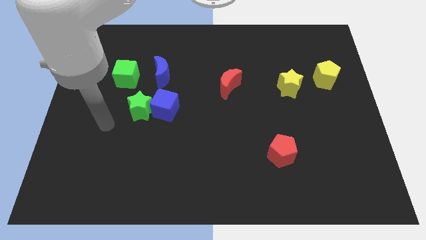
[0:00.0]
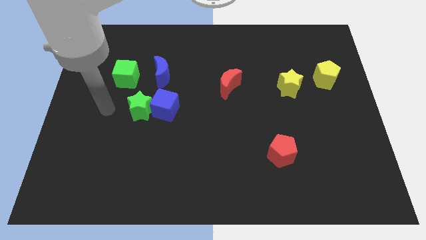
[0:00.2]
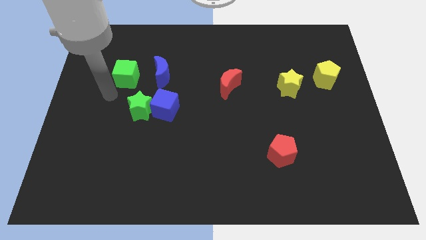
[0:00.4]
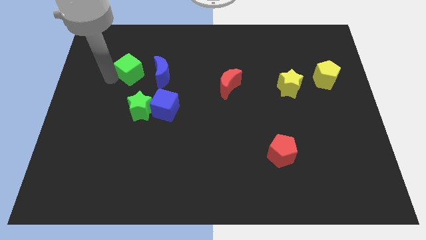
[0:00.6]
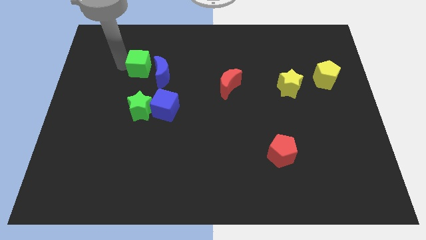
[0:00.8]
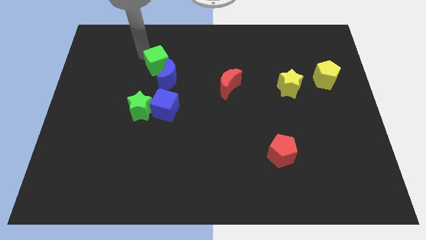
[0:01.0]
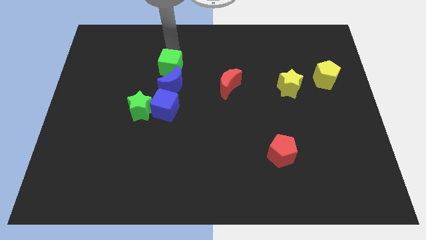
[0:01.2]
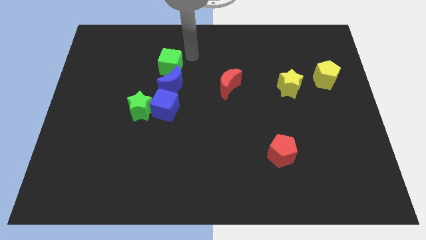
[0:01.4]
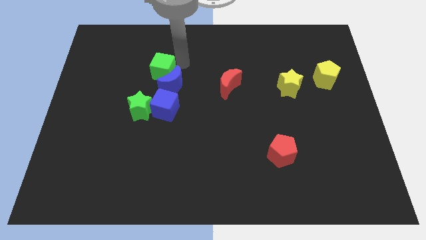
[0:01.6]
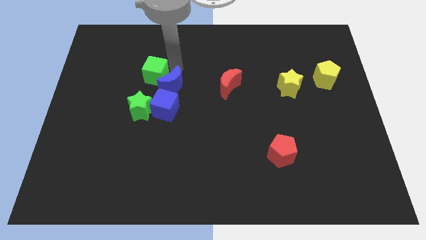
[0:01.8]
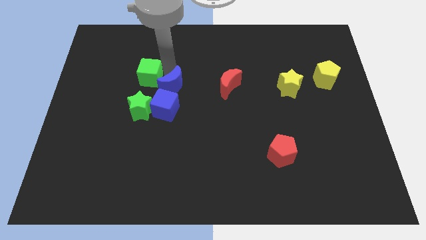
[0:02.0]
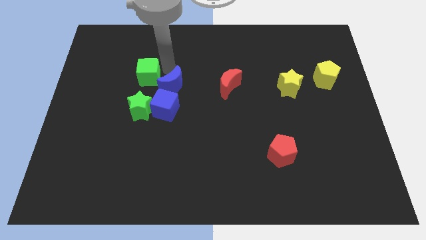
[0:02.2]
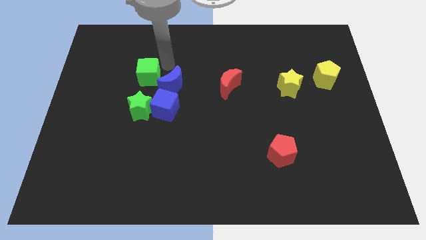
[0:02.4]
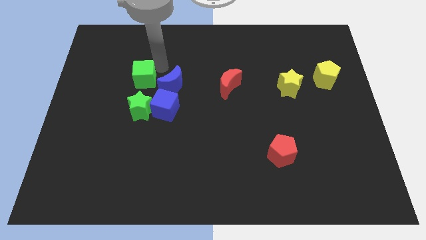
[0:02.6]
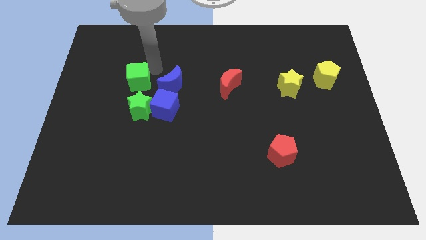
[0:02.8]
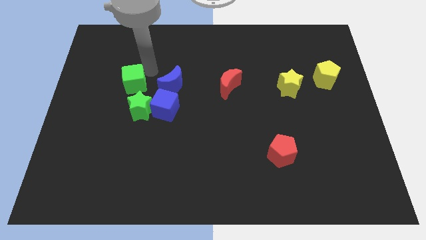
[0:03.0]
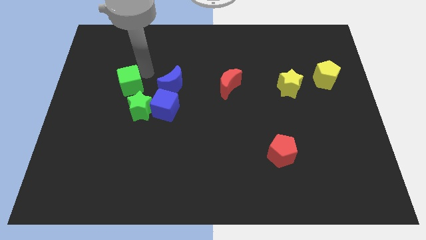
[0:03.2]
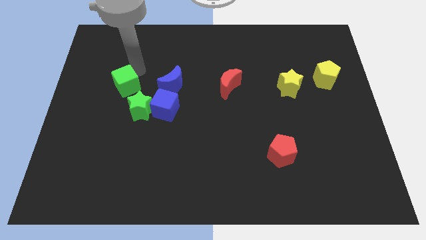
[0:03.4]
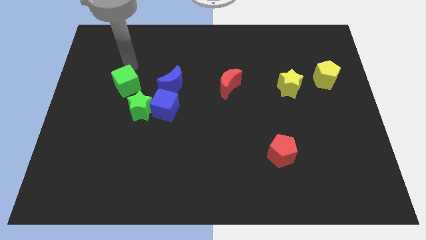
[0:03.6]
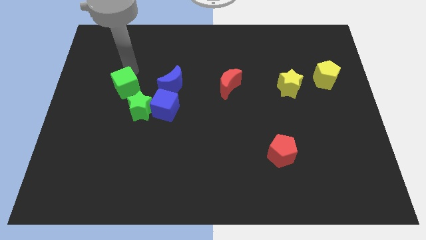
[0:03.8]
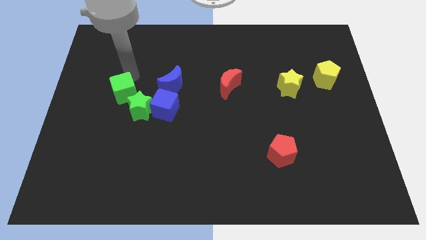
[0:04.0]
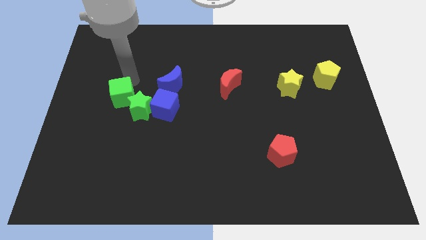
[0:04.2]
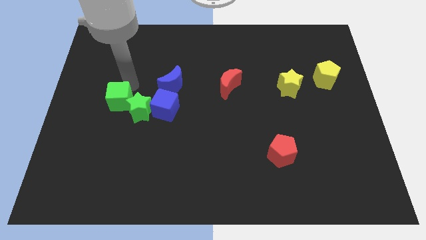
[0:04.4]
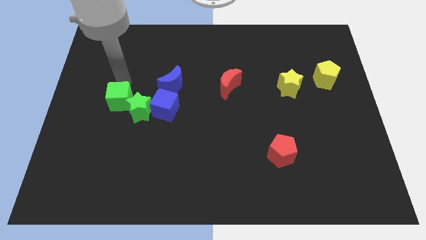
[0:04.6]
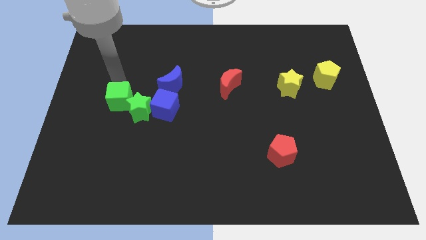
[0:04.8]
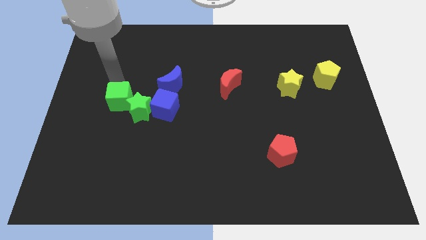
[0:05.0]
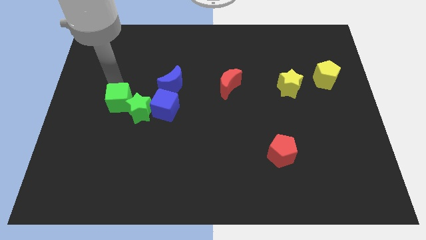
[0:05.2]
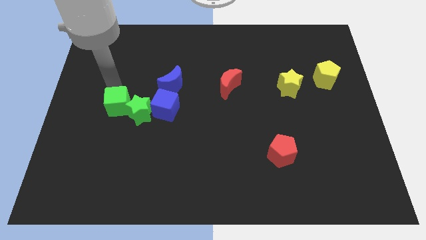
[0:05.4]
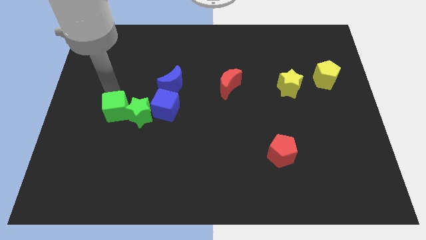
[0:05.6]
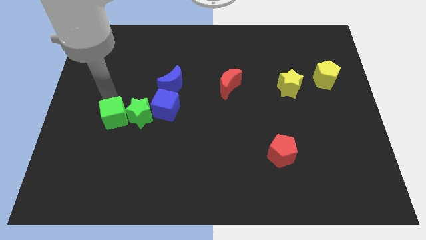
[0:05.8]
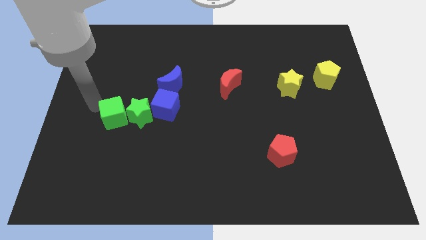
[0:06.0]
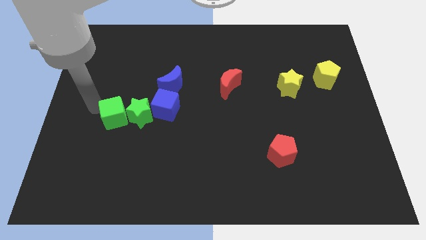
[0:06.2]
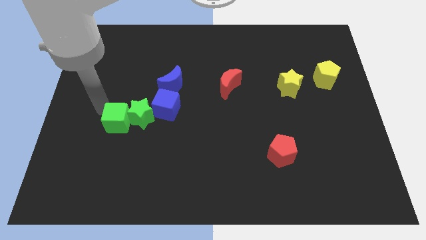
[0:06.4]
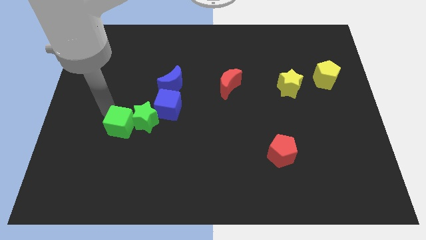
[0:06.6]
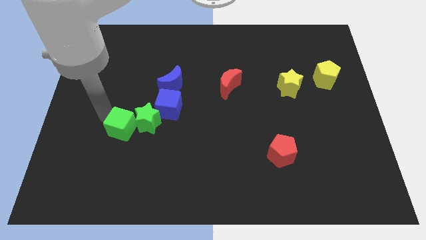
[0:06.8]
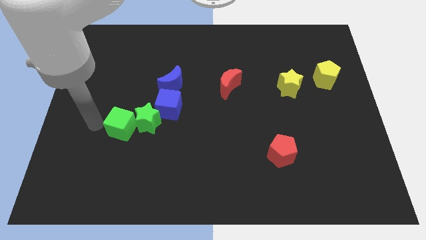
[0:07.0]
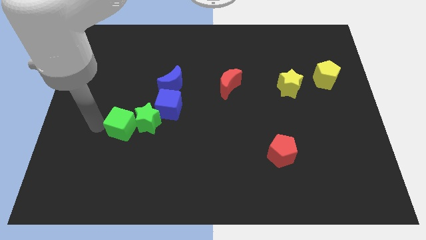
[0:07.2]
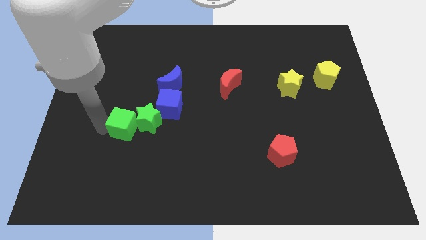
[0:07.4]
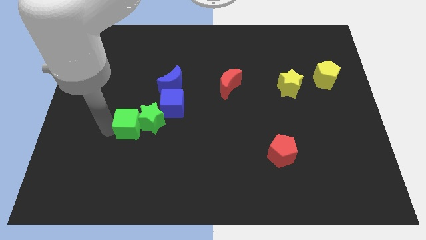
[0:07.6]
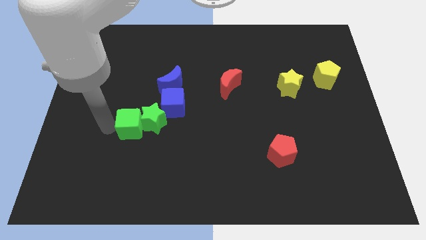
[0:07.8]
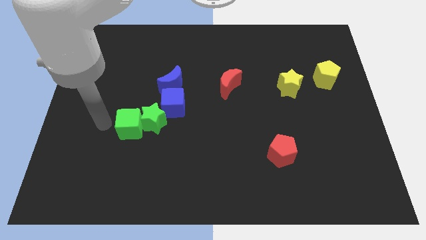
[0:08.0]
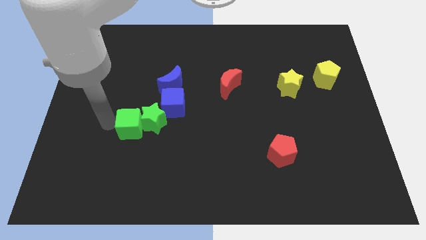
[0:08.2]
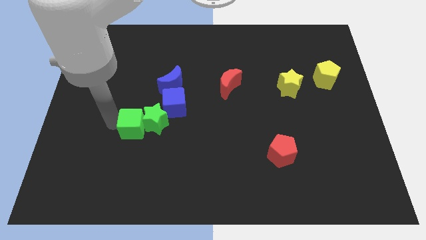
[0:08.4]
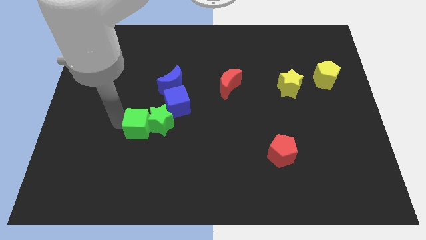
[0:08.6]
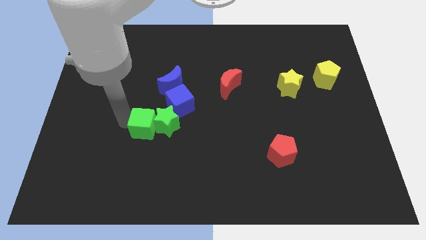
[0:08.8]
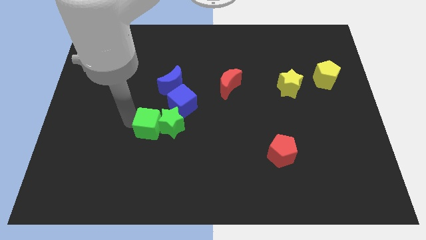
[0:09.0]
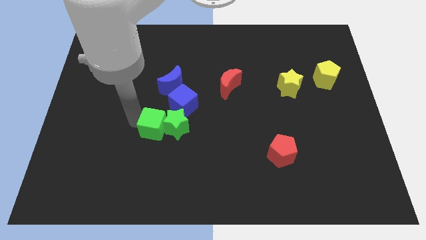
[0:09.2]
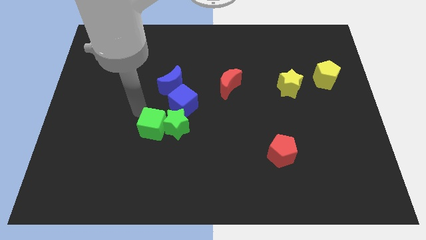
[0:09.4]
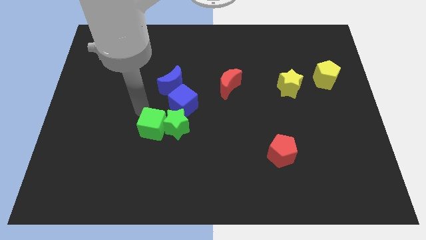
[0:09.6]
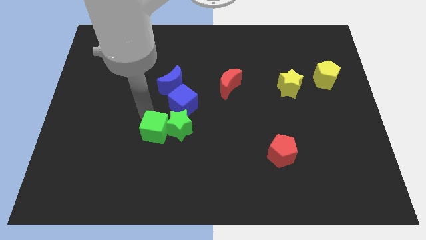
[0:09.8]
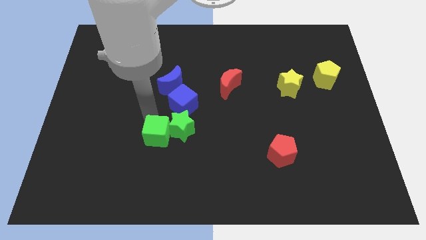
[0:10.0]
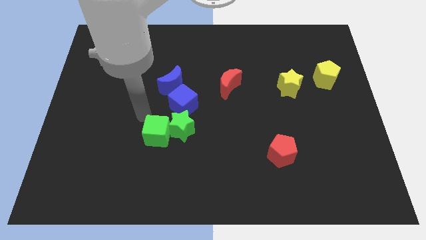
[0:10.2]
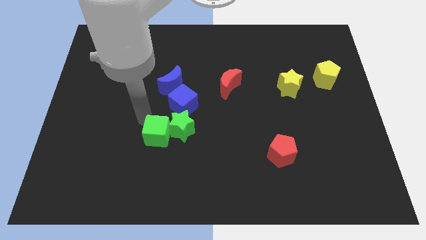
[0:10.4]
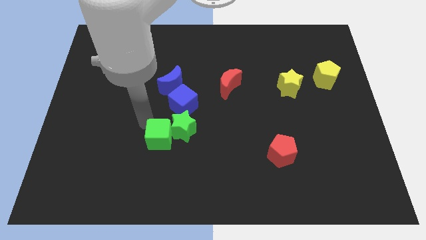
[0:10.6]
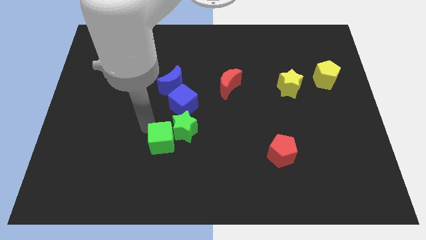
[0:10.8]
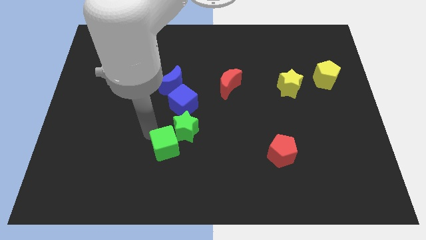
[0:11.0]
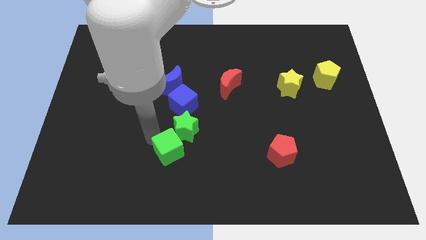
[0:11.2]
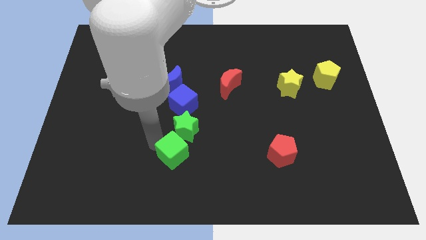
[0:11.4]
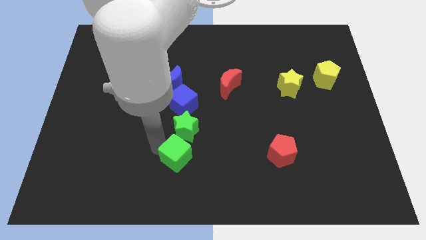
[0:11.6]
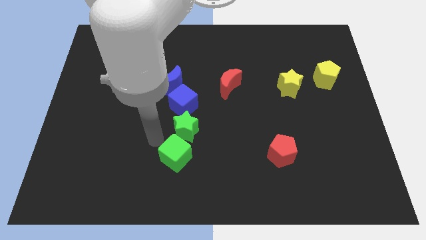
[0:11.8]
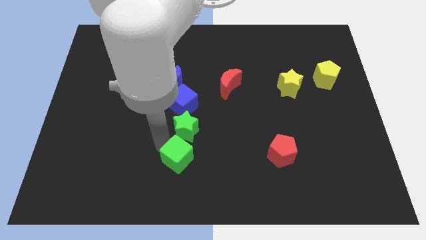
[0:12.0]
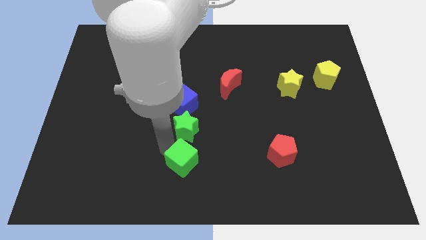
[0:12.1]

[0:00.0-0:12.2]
put the green cube to the bottom
